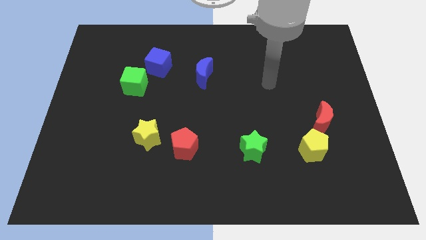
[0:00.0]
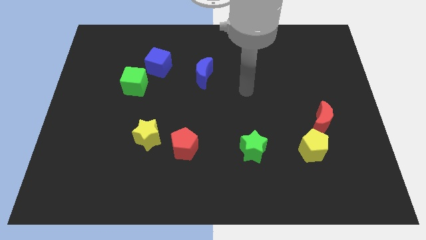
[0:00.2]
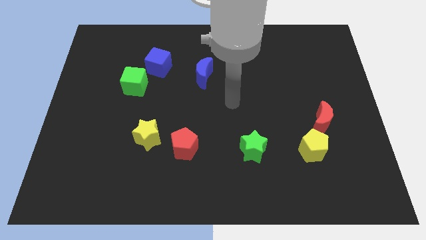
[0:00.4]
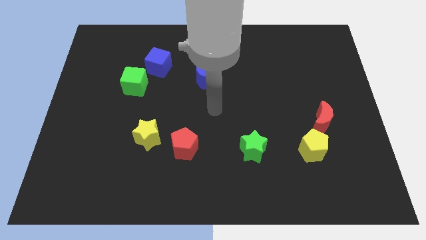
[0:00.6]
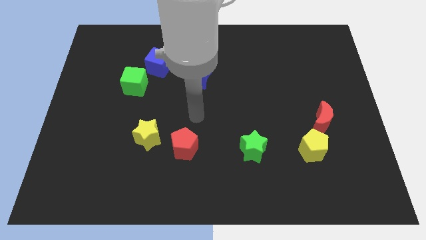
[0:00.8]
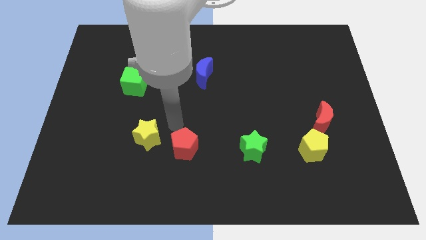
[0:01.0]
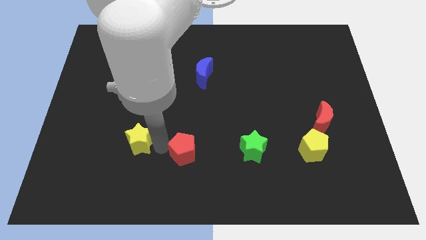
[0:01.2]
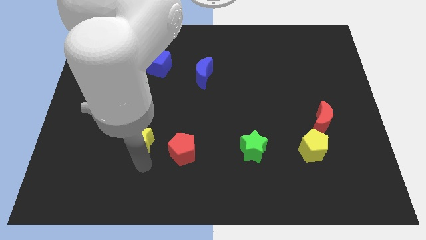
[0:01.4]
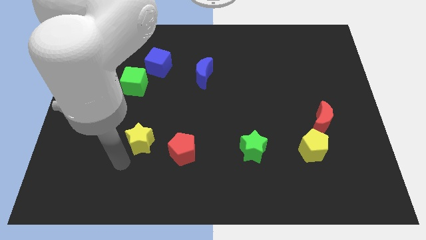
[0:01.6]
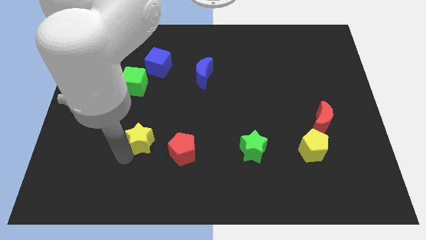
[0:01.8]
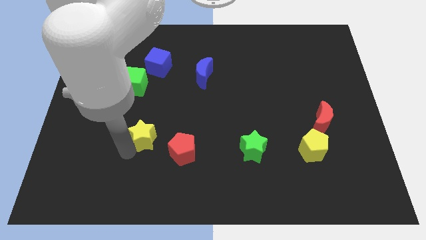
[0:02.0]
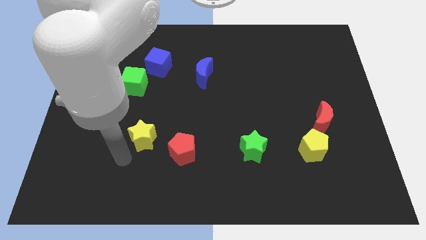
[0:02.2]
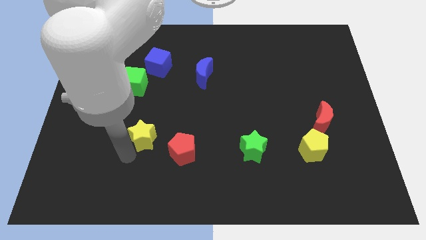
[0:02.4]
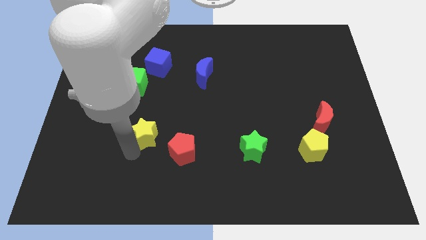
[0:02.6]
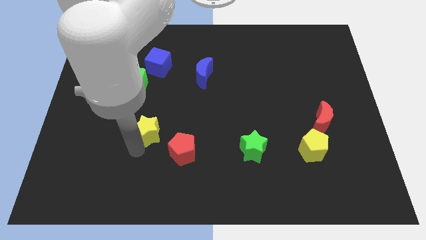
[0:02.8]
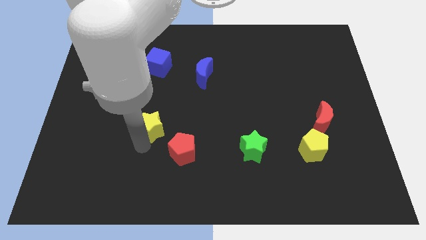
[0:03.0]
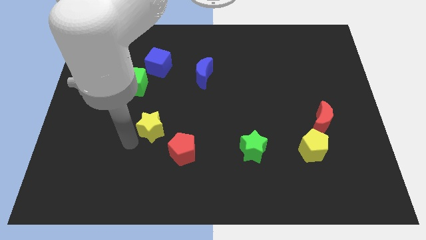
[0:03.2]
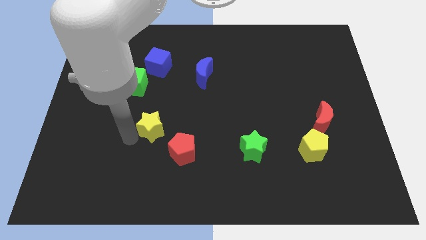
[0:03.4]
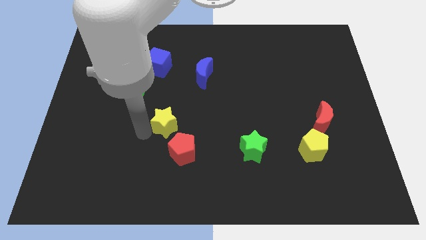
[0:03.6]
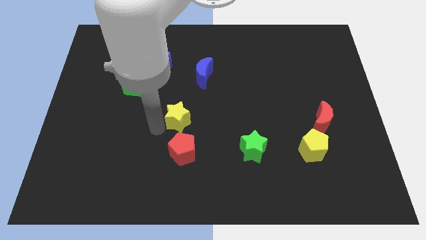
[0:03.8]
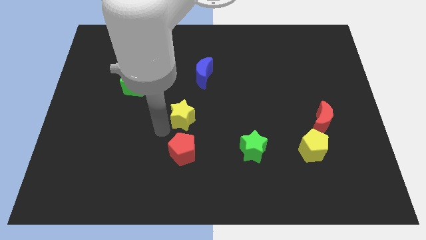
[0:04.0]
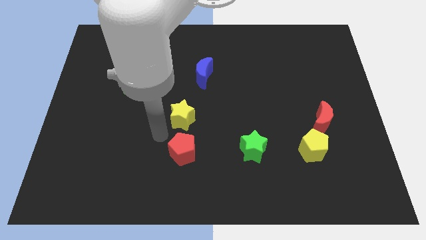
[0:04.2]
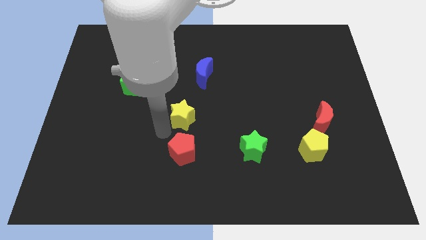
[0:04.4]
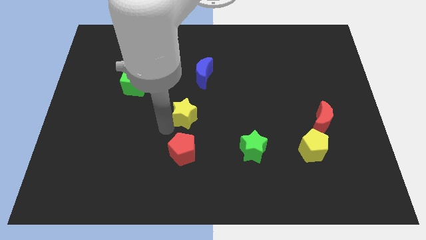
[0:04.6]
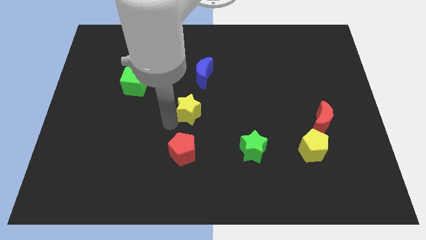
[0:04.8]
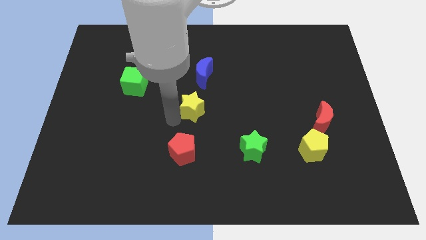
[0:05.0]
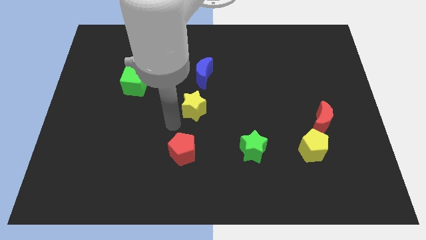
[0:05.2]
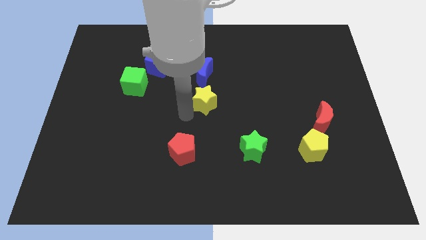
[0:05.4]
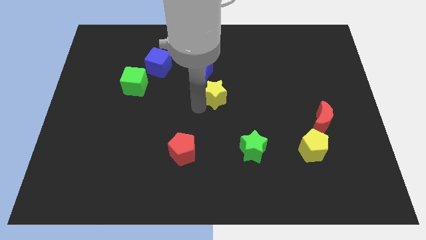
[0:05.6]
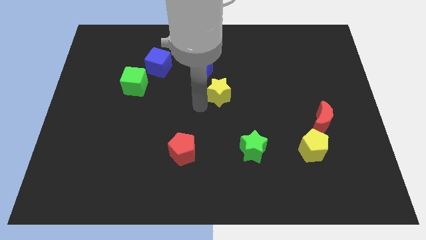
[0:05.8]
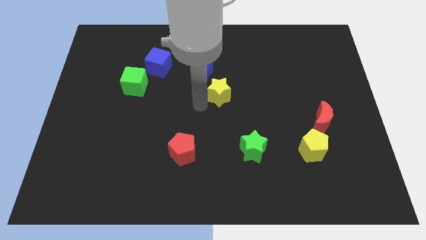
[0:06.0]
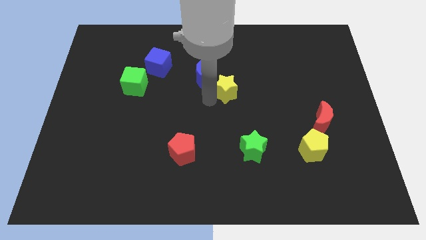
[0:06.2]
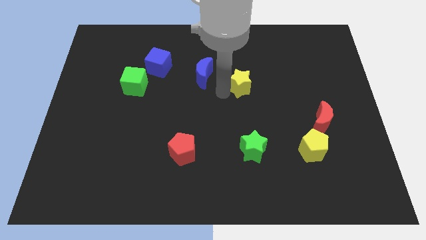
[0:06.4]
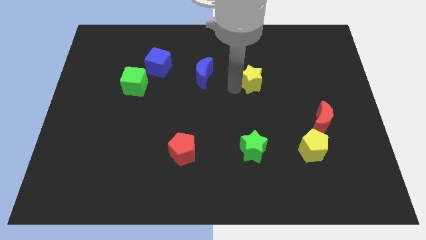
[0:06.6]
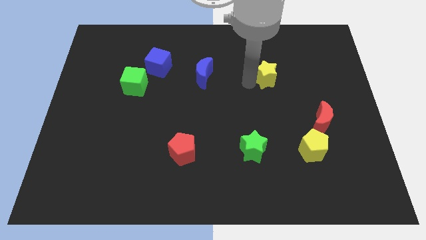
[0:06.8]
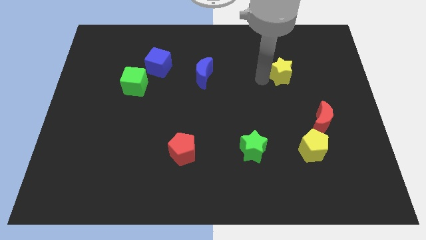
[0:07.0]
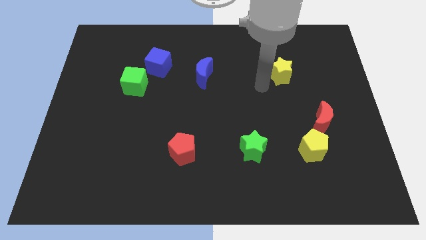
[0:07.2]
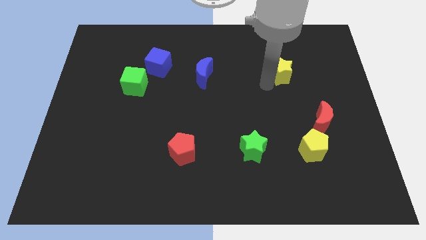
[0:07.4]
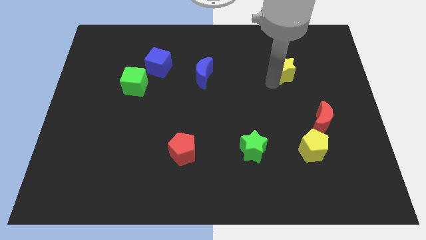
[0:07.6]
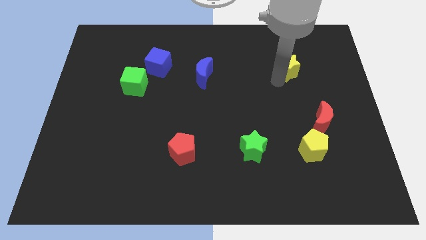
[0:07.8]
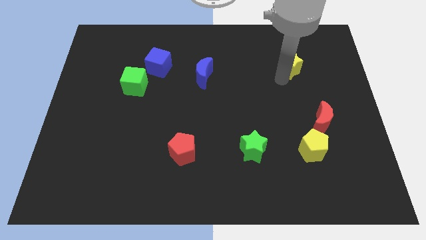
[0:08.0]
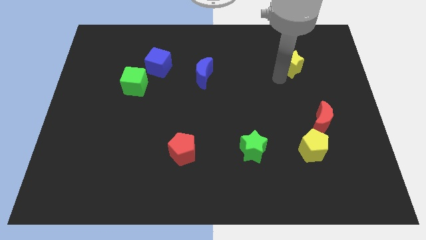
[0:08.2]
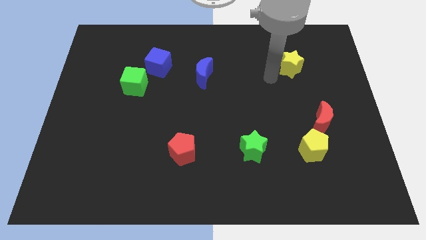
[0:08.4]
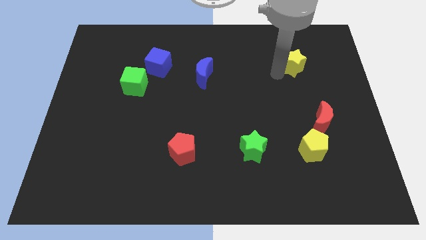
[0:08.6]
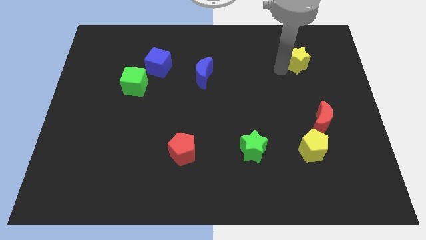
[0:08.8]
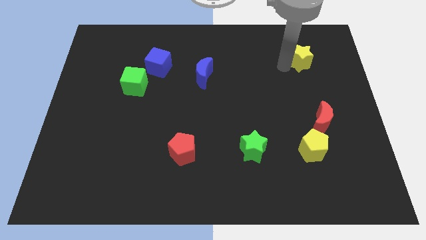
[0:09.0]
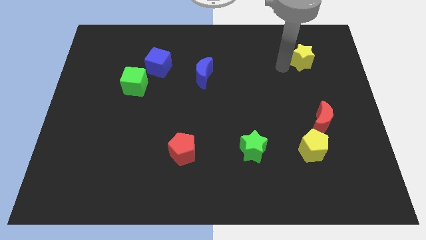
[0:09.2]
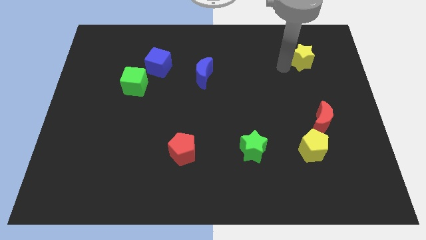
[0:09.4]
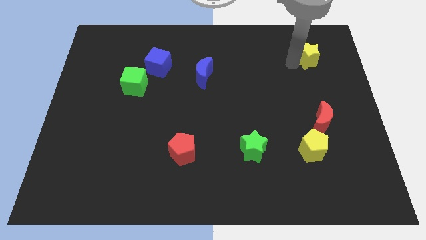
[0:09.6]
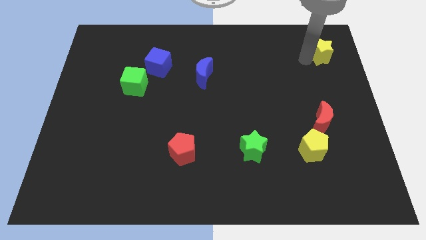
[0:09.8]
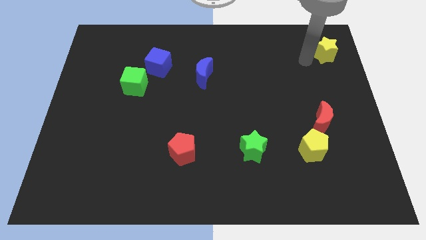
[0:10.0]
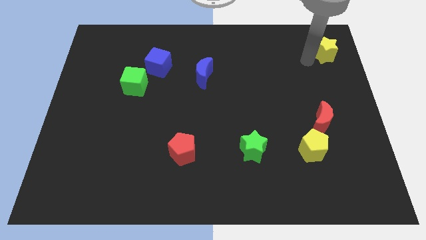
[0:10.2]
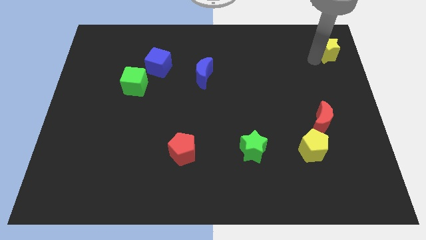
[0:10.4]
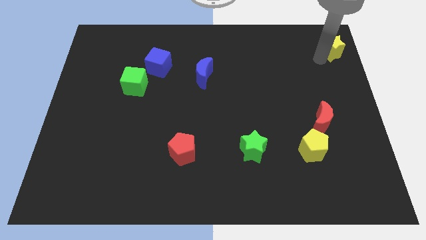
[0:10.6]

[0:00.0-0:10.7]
slide the yellow star to the top right

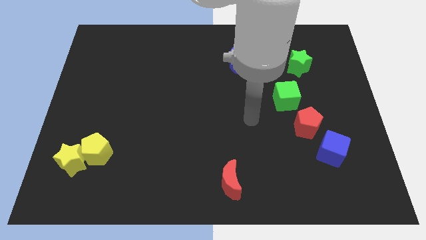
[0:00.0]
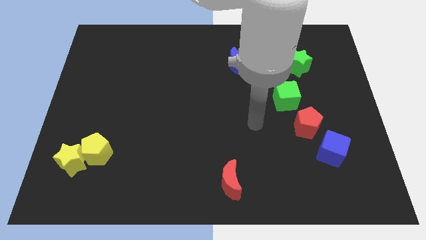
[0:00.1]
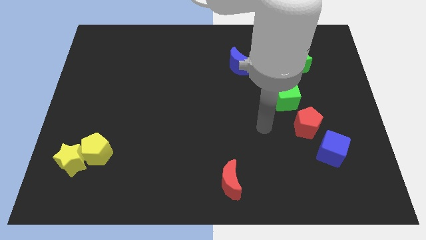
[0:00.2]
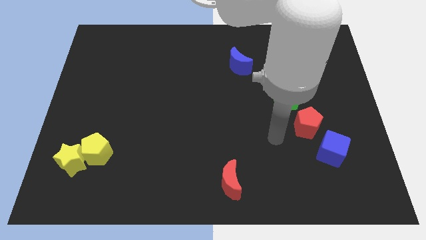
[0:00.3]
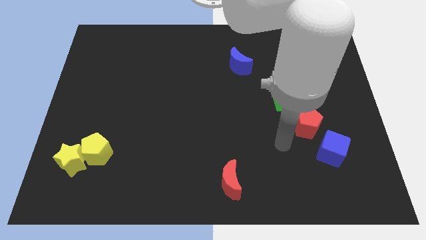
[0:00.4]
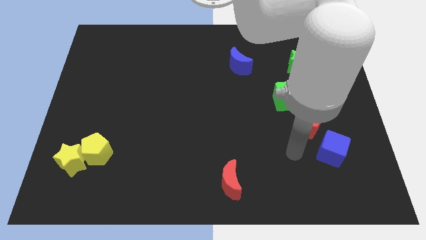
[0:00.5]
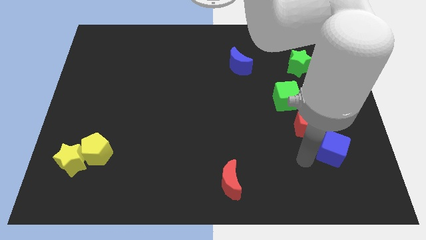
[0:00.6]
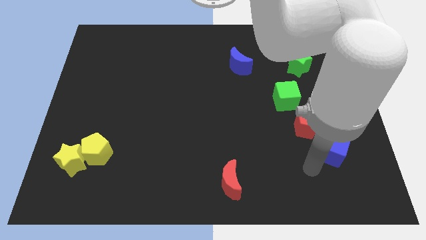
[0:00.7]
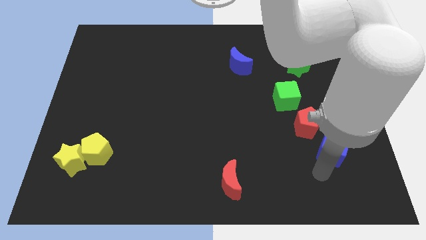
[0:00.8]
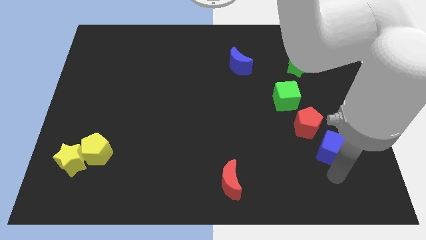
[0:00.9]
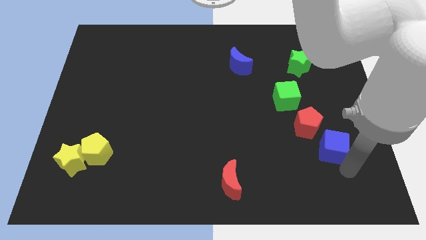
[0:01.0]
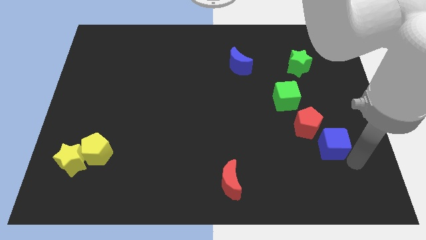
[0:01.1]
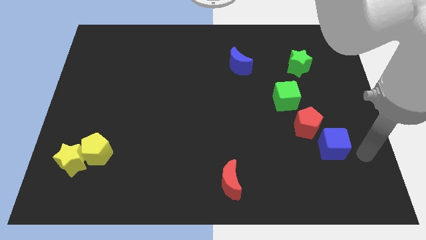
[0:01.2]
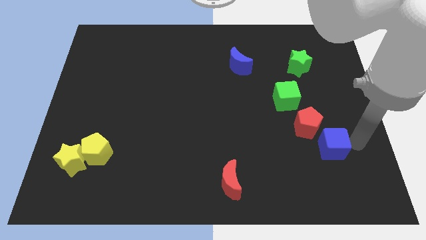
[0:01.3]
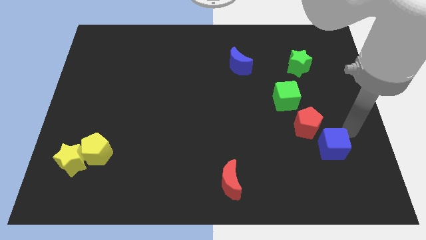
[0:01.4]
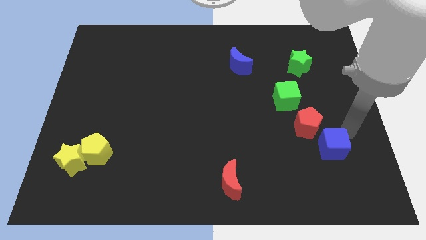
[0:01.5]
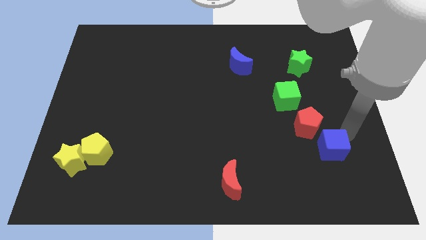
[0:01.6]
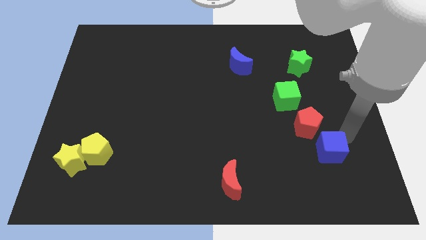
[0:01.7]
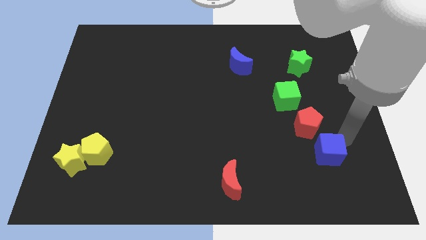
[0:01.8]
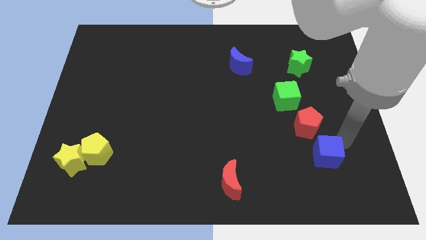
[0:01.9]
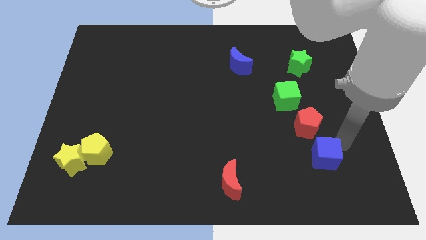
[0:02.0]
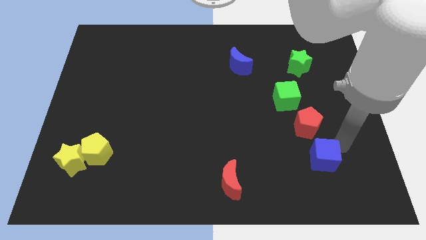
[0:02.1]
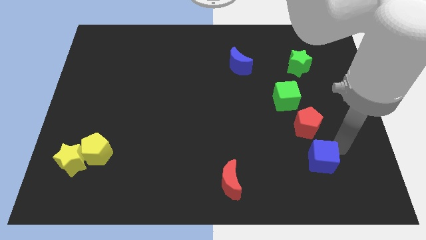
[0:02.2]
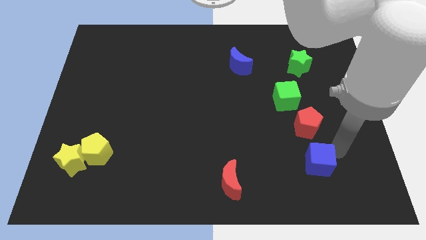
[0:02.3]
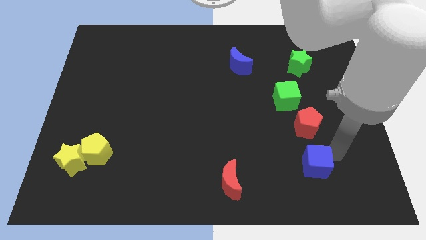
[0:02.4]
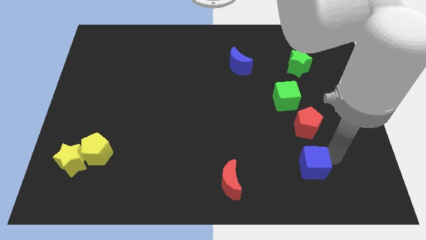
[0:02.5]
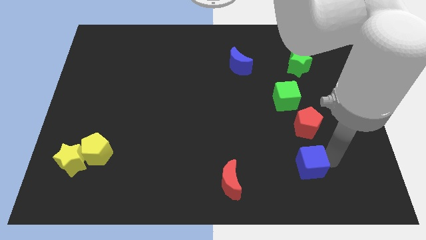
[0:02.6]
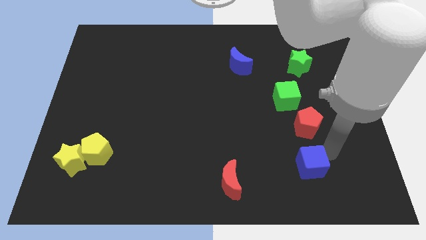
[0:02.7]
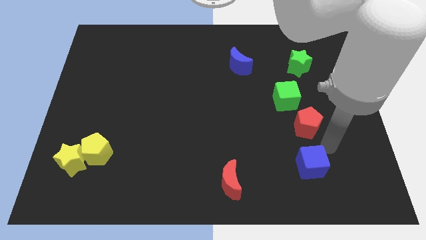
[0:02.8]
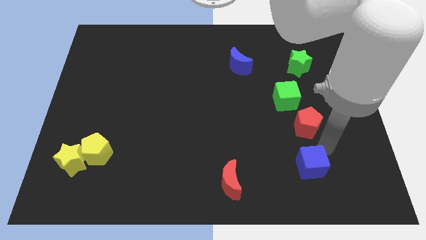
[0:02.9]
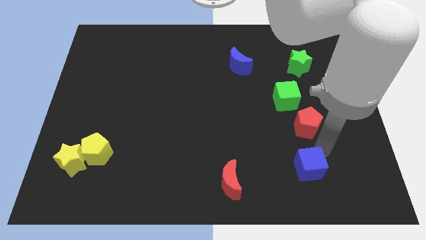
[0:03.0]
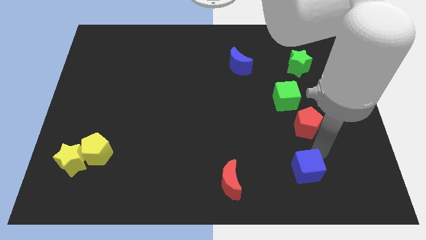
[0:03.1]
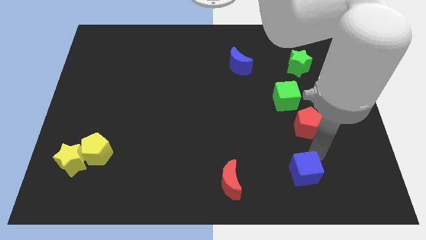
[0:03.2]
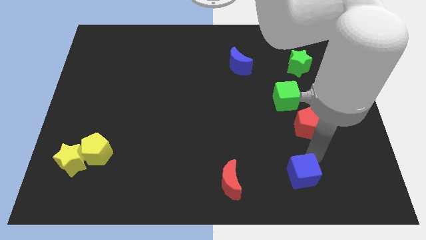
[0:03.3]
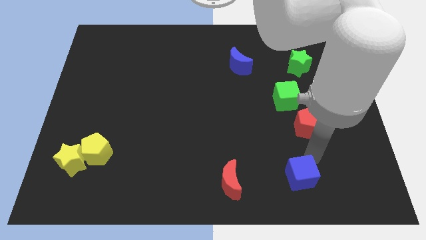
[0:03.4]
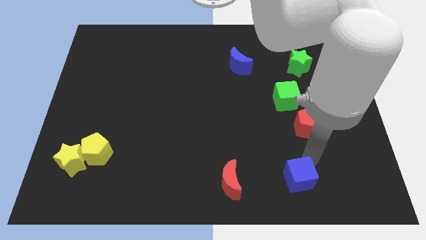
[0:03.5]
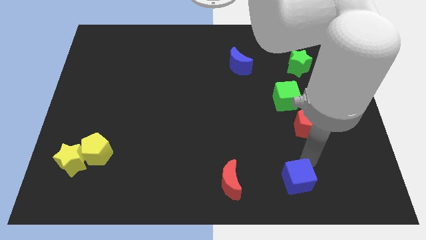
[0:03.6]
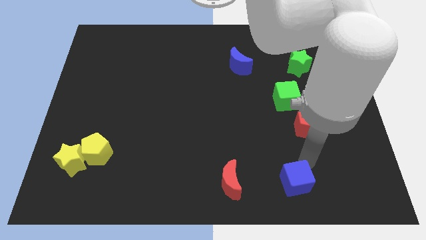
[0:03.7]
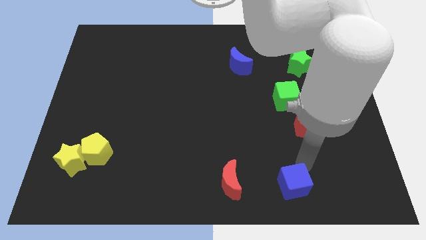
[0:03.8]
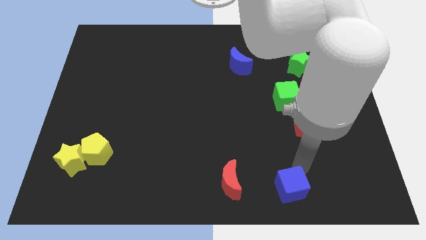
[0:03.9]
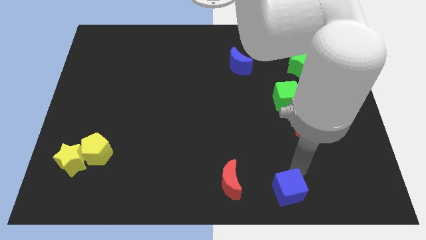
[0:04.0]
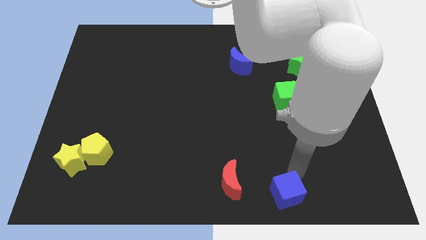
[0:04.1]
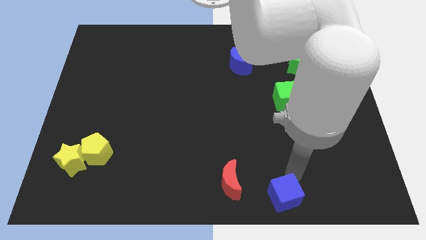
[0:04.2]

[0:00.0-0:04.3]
move the blue cube to the bottom
